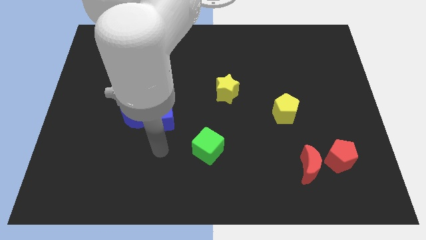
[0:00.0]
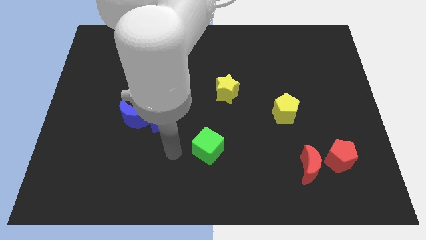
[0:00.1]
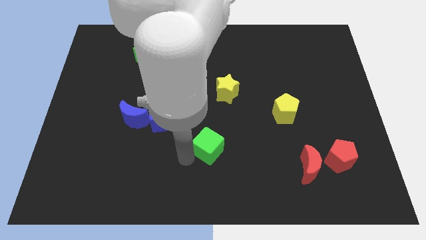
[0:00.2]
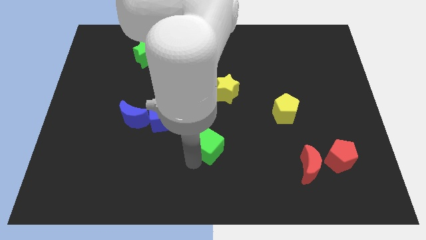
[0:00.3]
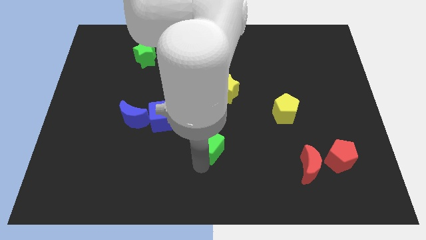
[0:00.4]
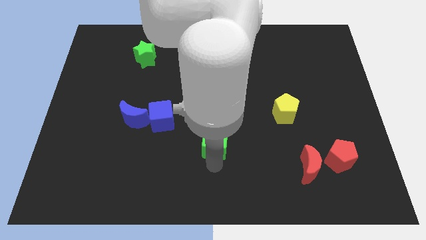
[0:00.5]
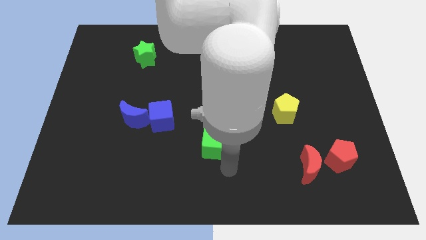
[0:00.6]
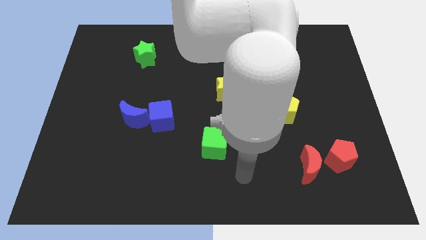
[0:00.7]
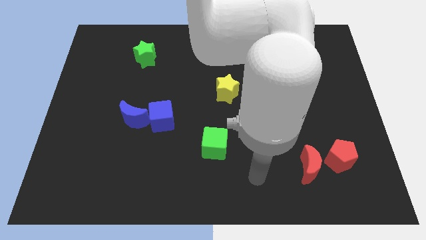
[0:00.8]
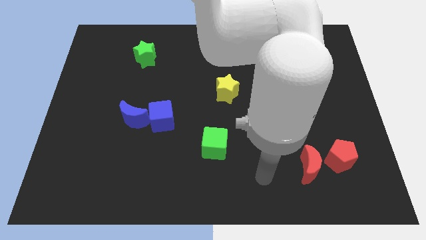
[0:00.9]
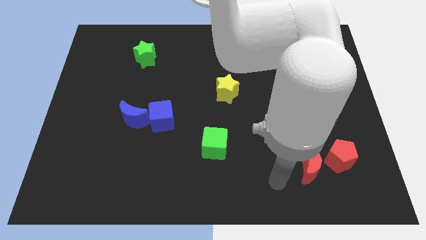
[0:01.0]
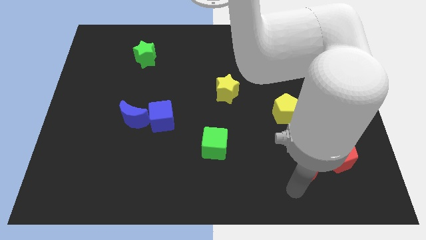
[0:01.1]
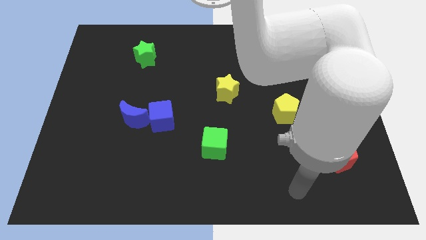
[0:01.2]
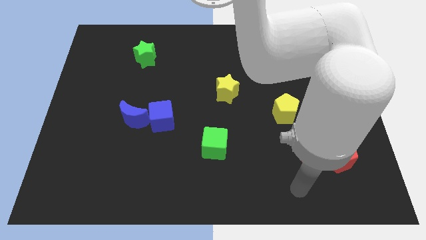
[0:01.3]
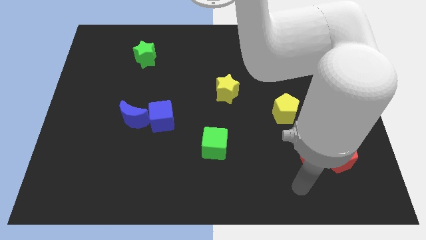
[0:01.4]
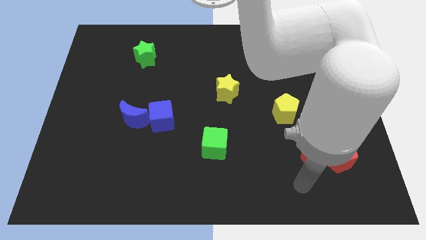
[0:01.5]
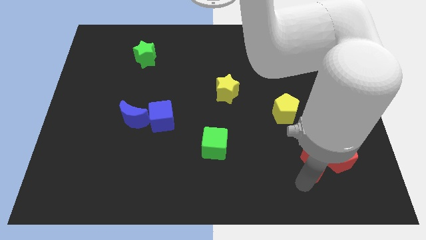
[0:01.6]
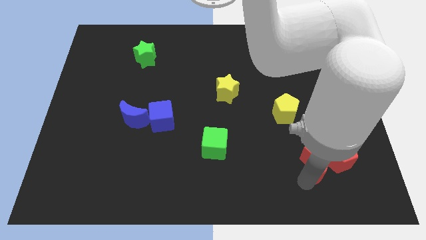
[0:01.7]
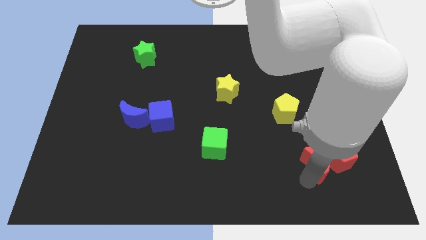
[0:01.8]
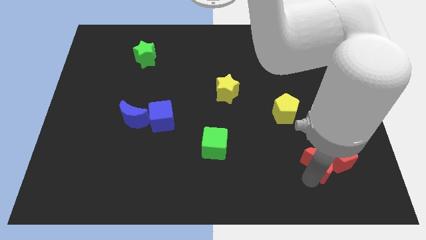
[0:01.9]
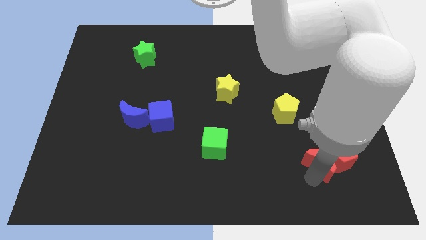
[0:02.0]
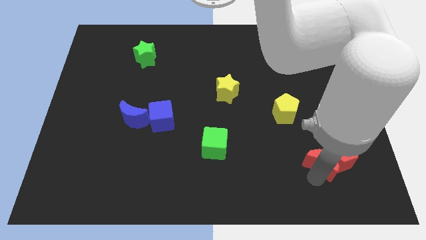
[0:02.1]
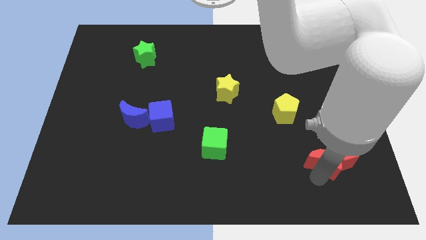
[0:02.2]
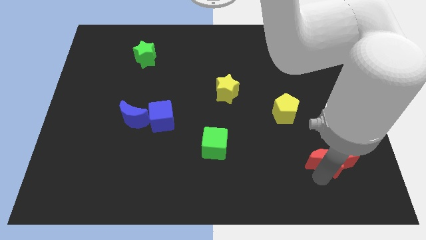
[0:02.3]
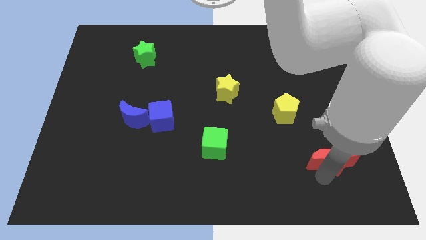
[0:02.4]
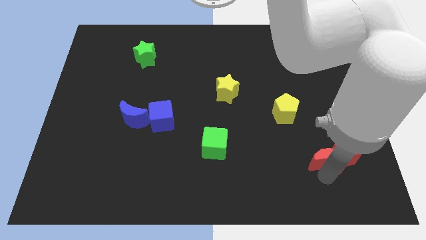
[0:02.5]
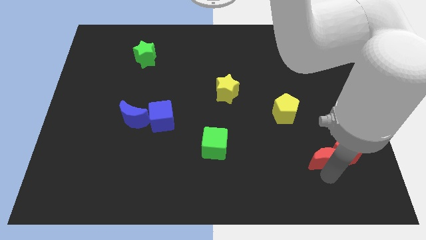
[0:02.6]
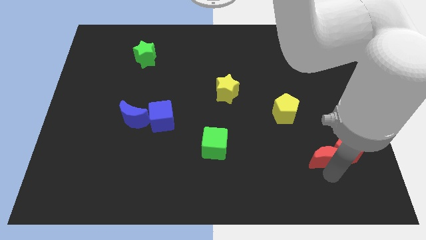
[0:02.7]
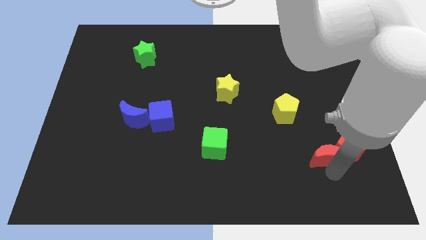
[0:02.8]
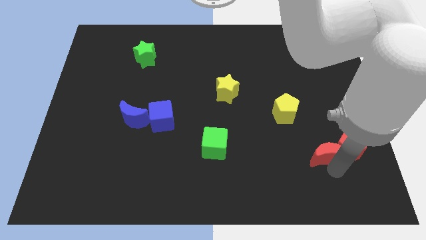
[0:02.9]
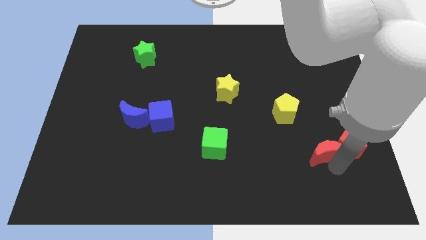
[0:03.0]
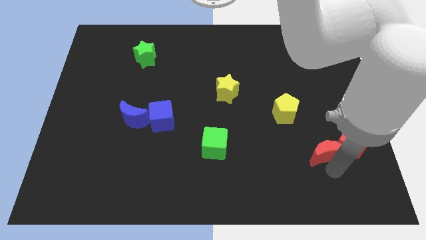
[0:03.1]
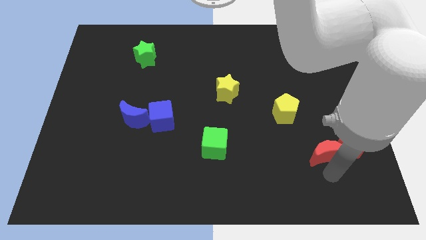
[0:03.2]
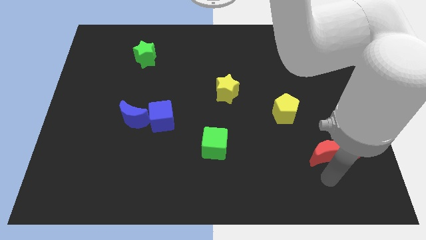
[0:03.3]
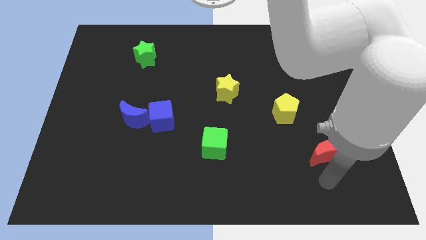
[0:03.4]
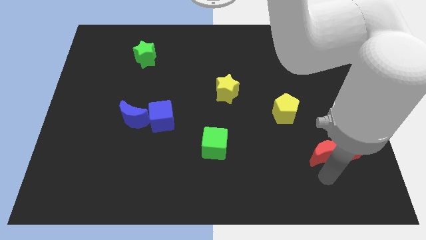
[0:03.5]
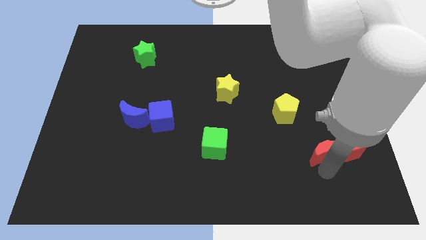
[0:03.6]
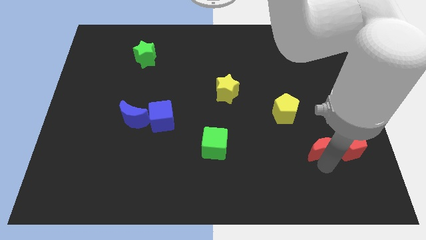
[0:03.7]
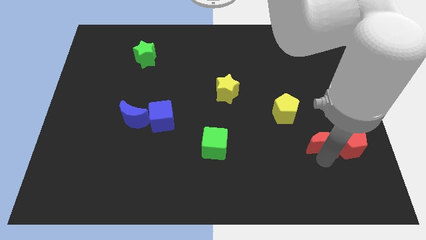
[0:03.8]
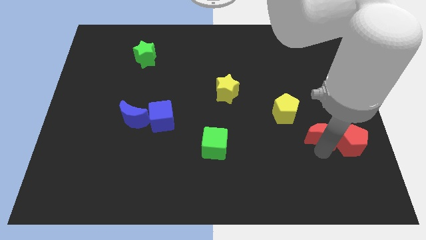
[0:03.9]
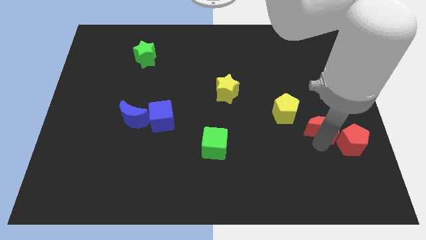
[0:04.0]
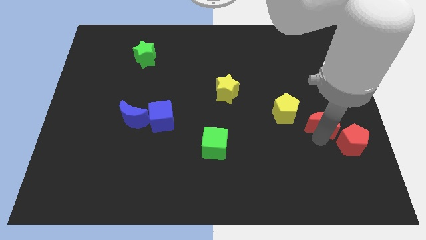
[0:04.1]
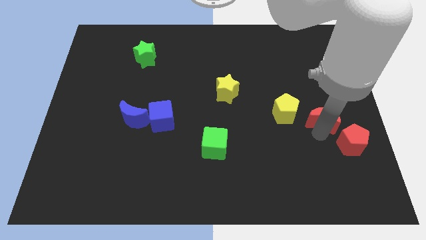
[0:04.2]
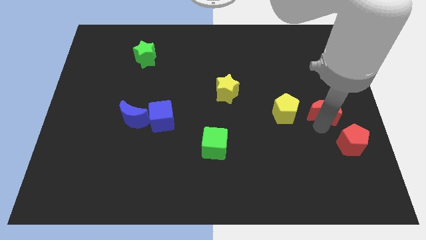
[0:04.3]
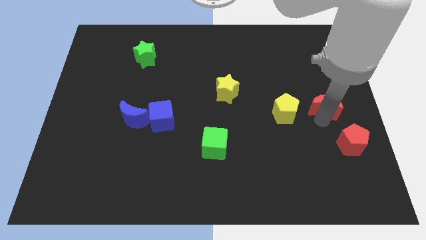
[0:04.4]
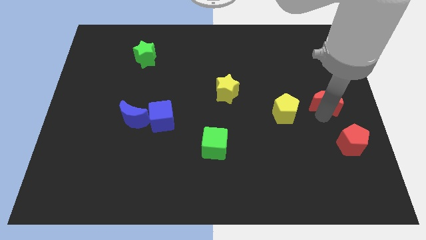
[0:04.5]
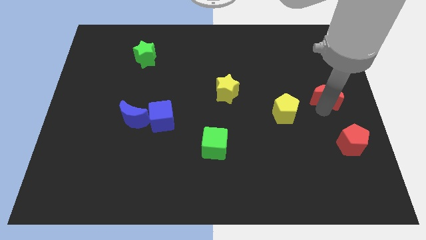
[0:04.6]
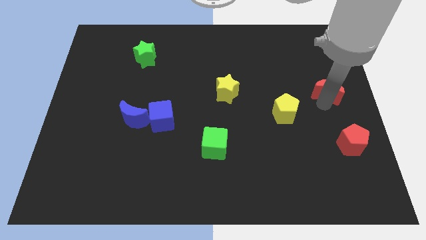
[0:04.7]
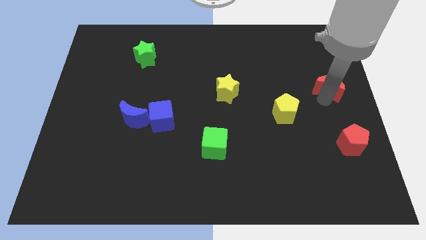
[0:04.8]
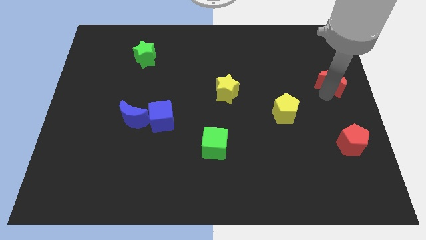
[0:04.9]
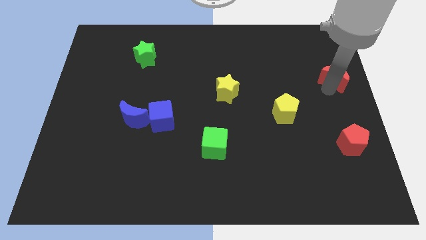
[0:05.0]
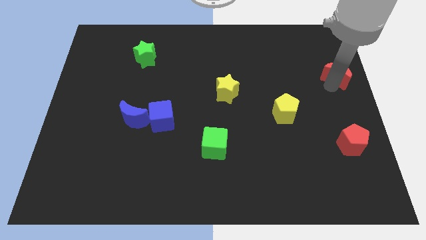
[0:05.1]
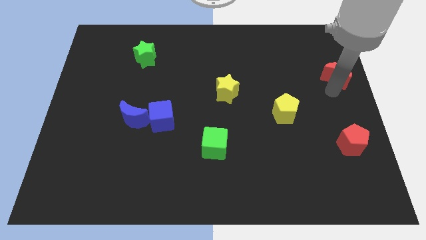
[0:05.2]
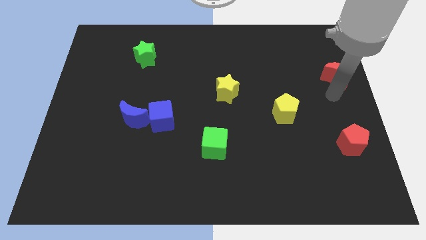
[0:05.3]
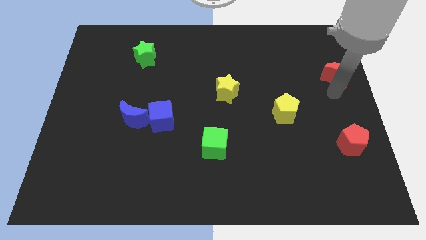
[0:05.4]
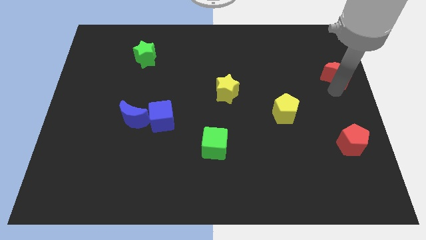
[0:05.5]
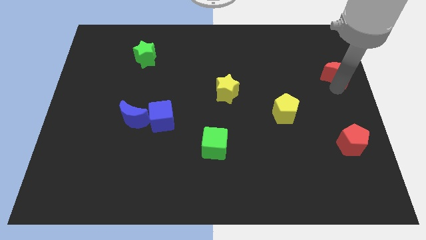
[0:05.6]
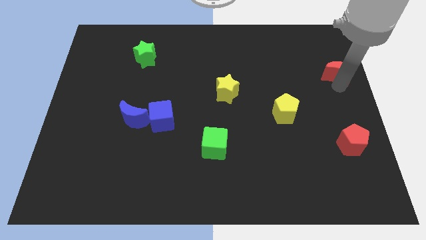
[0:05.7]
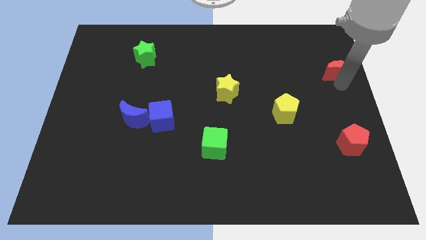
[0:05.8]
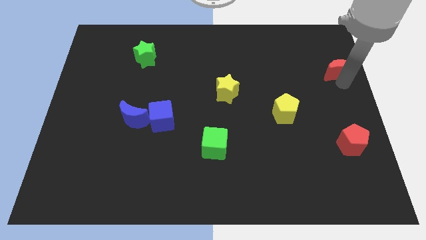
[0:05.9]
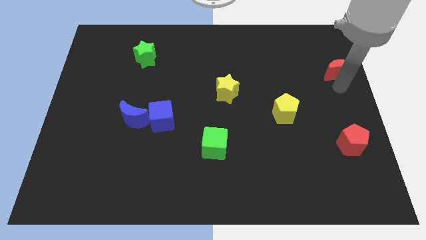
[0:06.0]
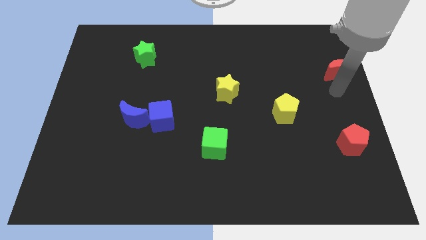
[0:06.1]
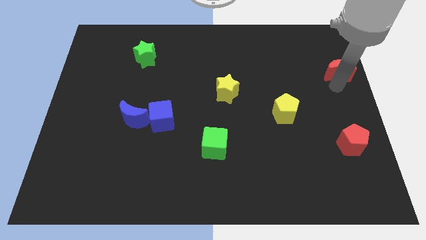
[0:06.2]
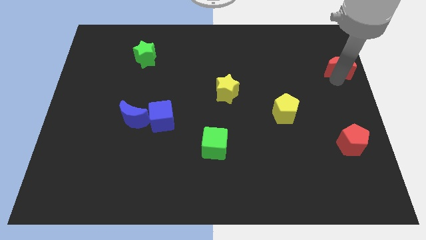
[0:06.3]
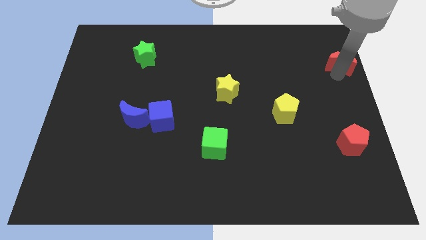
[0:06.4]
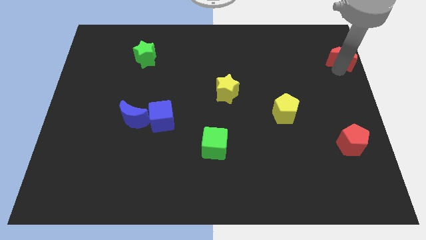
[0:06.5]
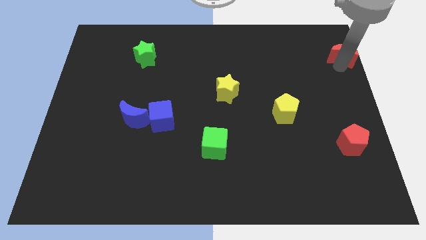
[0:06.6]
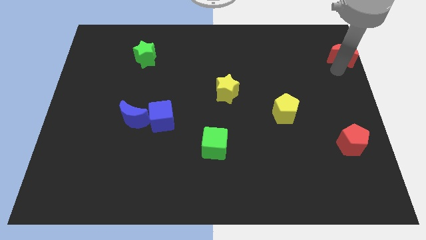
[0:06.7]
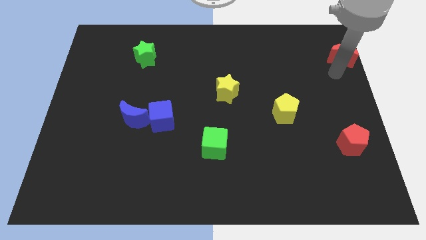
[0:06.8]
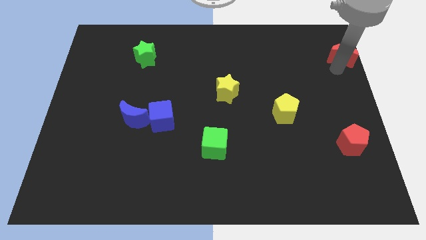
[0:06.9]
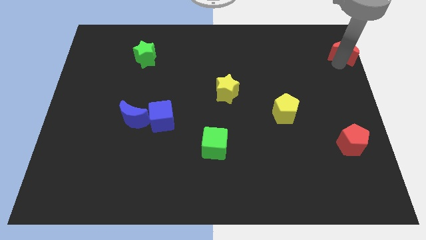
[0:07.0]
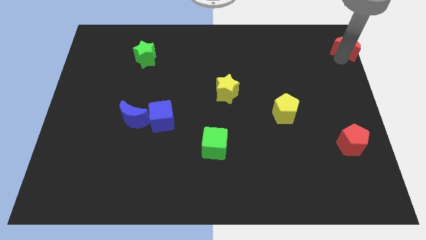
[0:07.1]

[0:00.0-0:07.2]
move the red moon to the top right of the board
